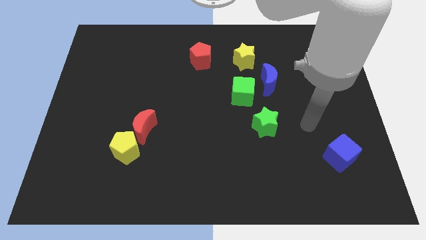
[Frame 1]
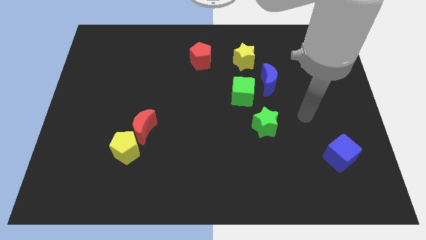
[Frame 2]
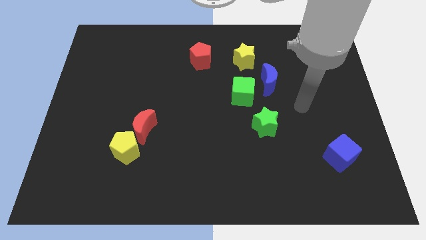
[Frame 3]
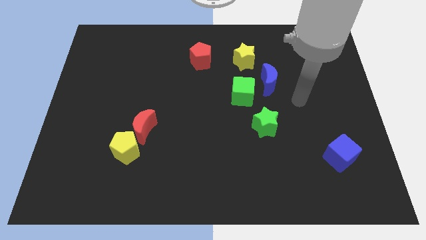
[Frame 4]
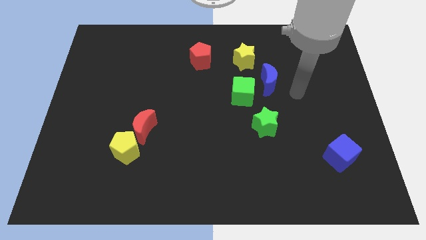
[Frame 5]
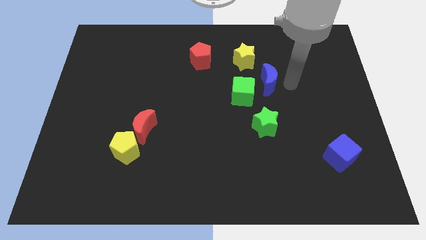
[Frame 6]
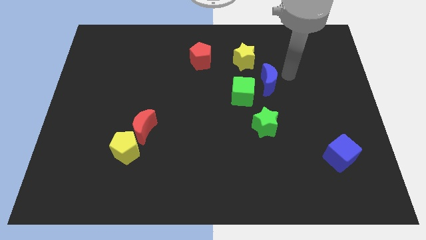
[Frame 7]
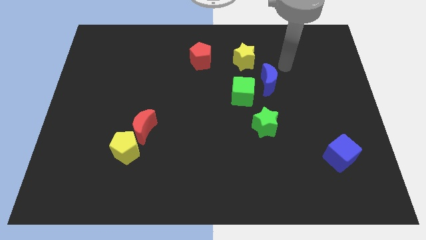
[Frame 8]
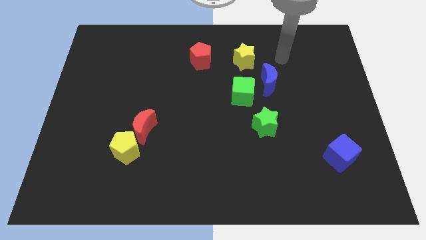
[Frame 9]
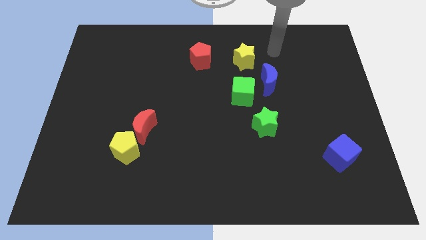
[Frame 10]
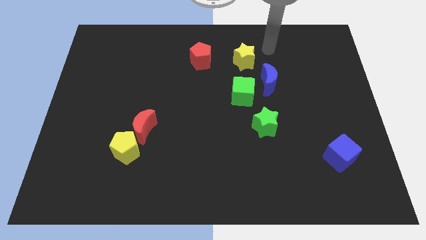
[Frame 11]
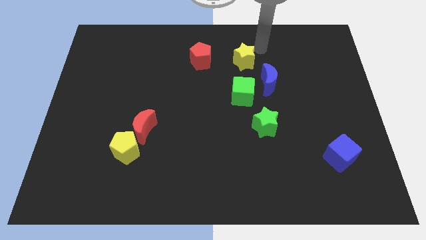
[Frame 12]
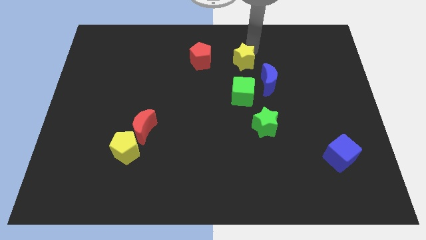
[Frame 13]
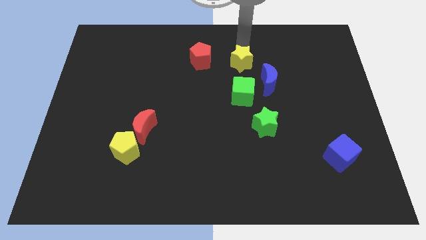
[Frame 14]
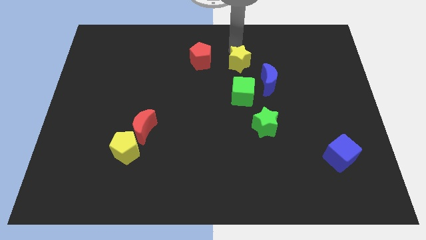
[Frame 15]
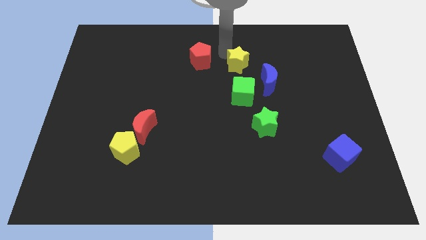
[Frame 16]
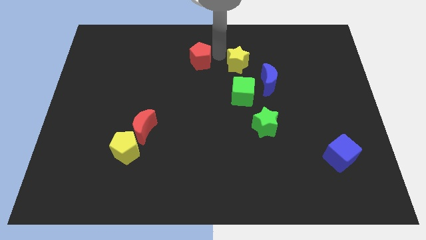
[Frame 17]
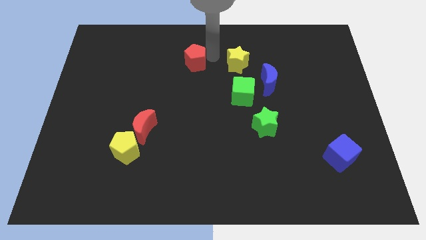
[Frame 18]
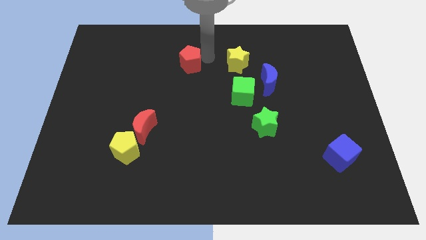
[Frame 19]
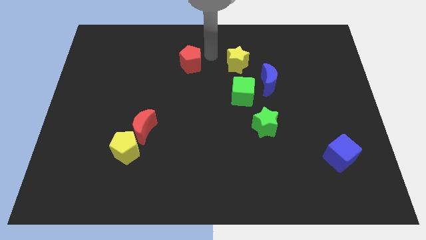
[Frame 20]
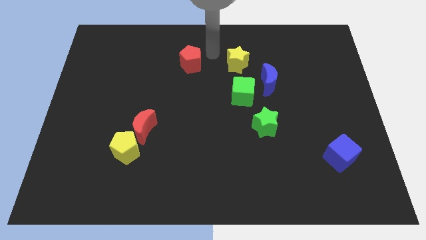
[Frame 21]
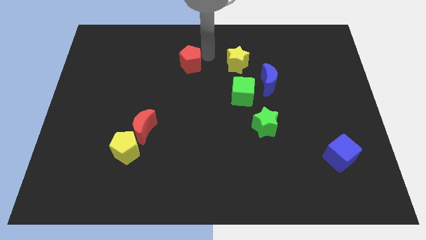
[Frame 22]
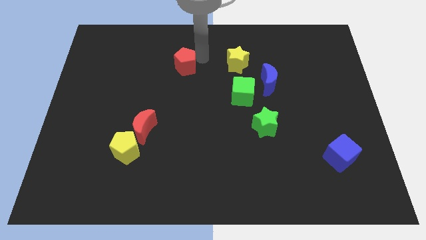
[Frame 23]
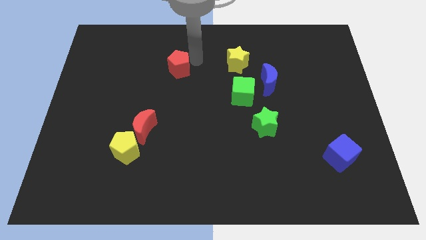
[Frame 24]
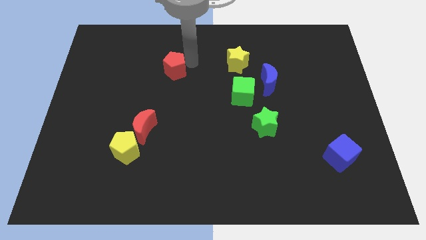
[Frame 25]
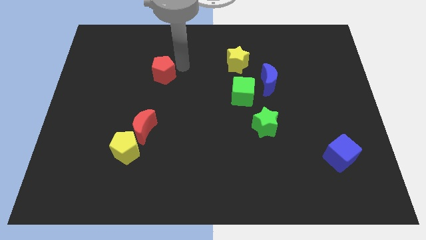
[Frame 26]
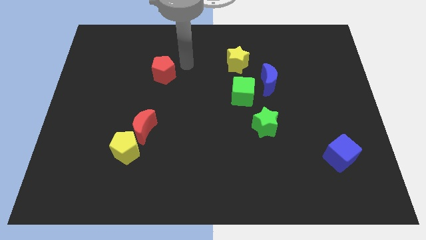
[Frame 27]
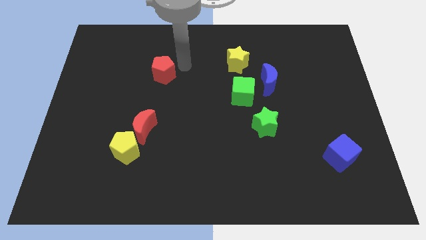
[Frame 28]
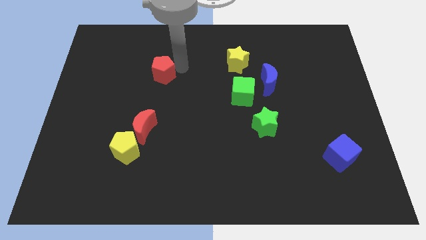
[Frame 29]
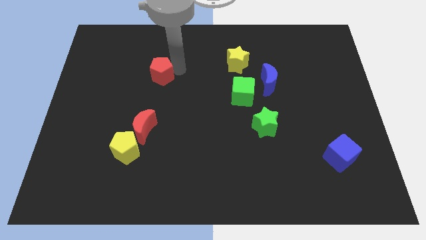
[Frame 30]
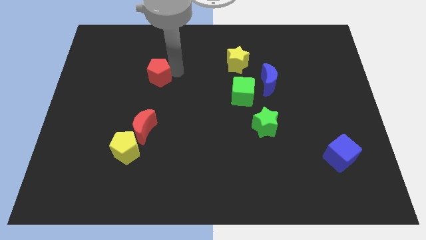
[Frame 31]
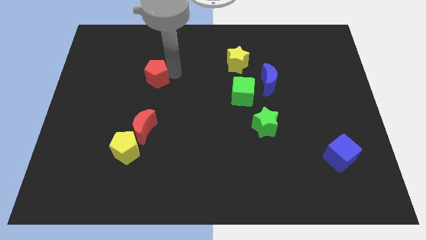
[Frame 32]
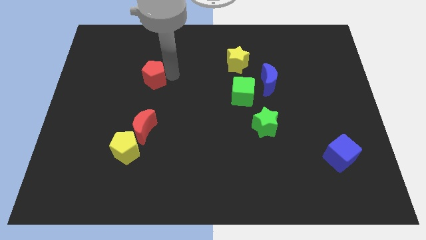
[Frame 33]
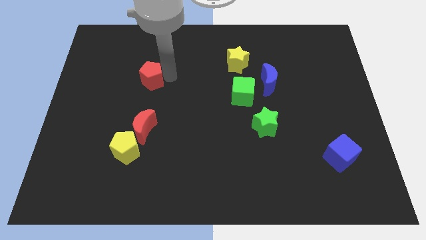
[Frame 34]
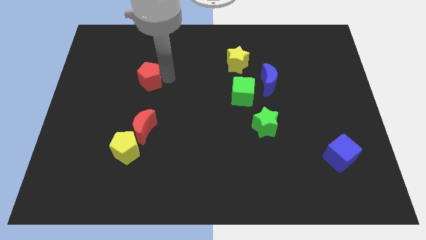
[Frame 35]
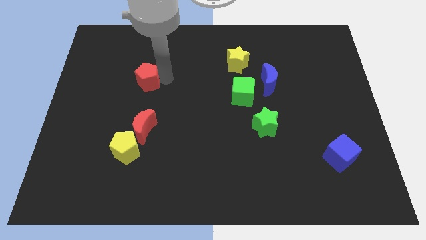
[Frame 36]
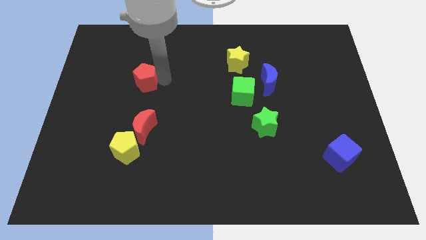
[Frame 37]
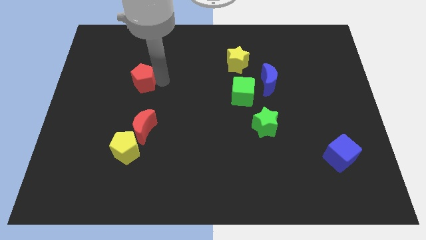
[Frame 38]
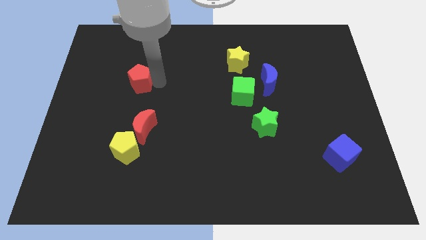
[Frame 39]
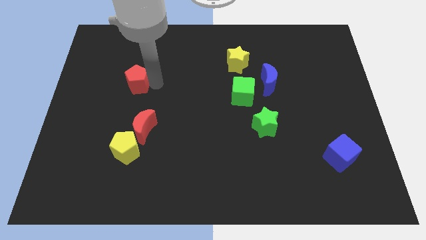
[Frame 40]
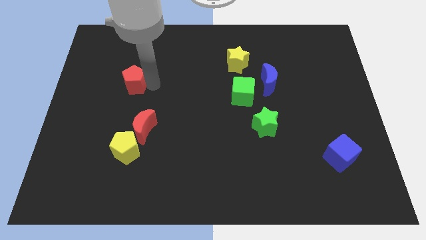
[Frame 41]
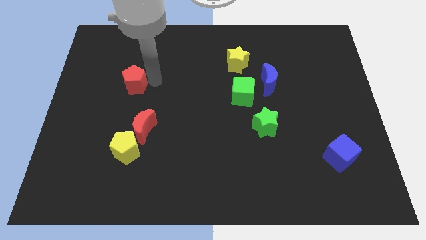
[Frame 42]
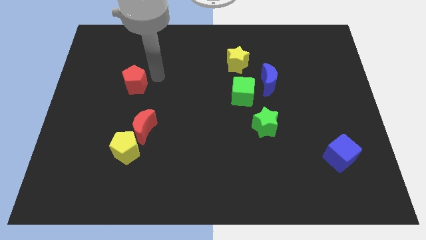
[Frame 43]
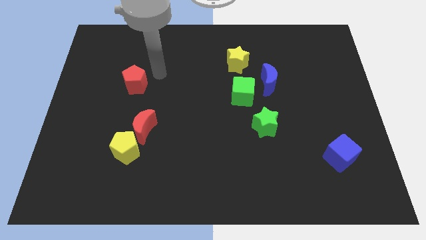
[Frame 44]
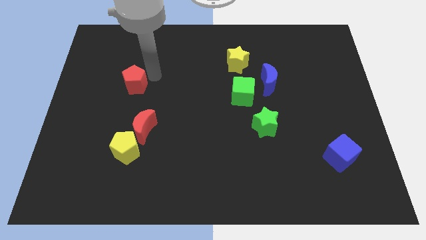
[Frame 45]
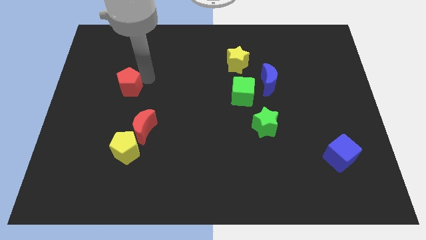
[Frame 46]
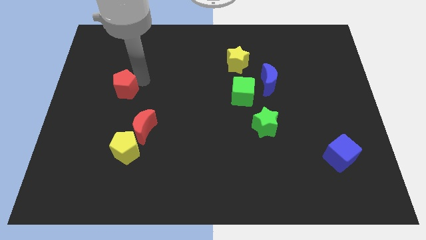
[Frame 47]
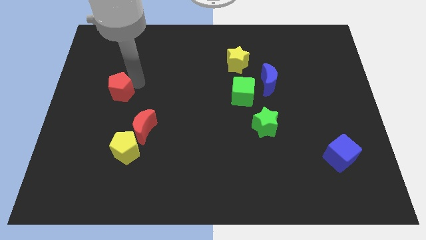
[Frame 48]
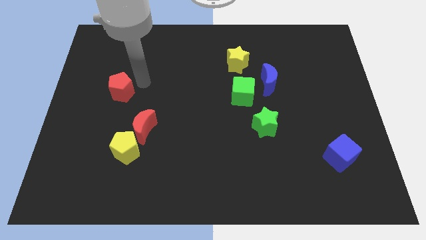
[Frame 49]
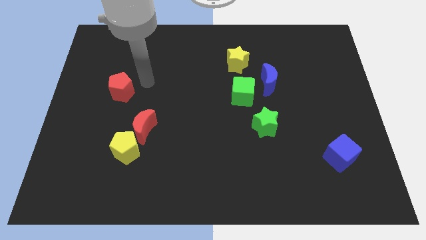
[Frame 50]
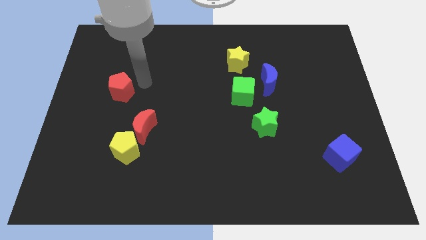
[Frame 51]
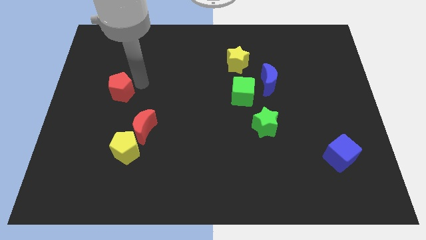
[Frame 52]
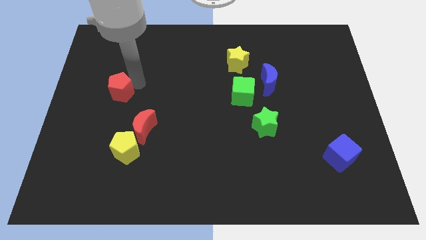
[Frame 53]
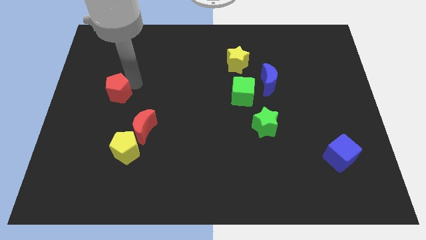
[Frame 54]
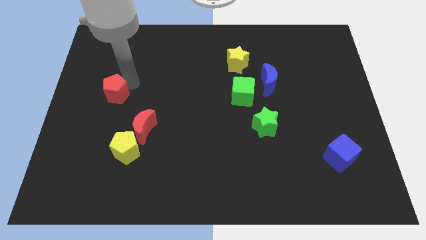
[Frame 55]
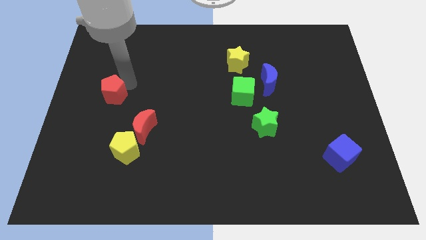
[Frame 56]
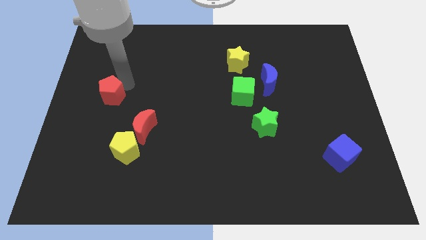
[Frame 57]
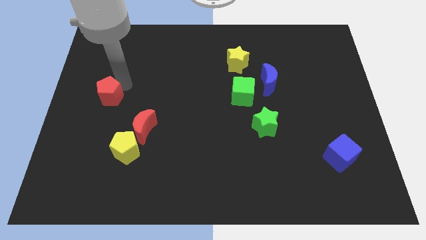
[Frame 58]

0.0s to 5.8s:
slide the red pentagon to the center left

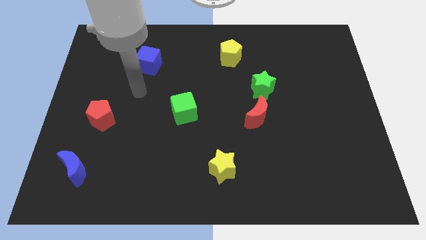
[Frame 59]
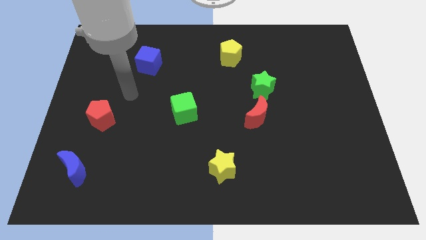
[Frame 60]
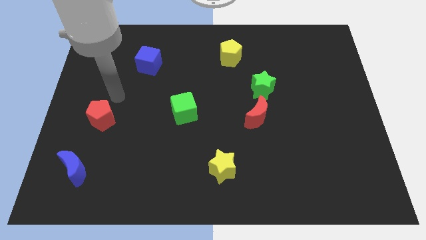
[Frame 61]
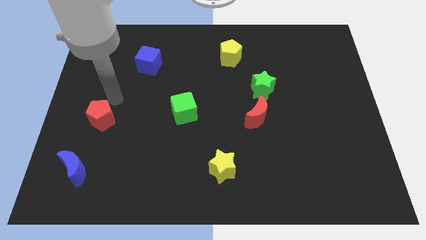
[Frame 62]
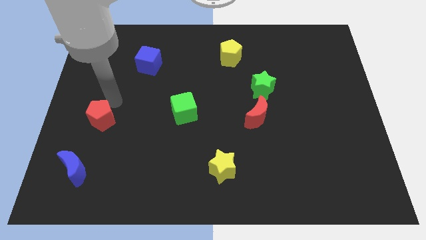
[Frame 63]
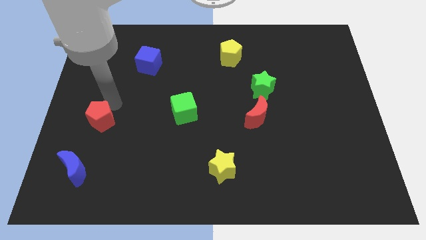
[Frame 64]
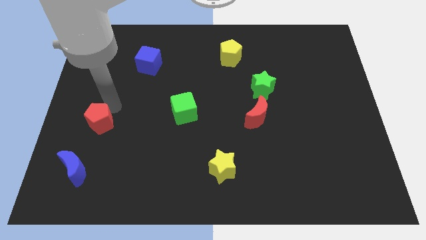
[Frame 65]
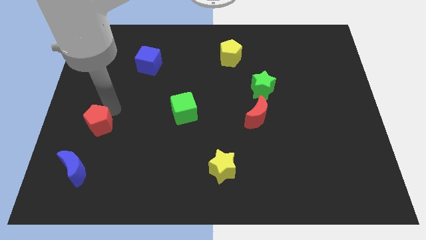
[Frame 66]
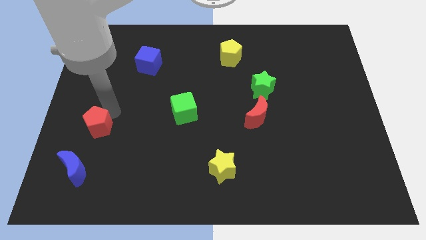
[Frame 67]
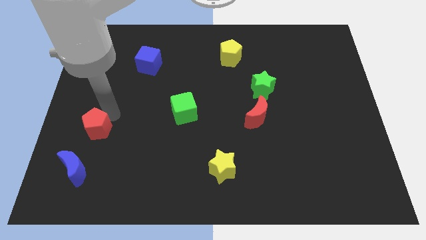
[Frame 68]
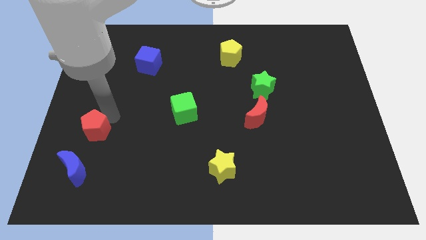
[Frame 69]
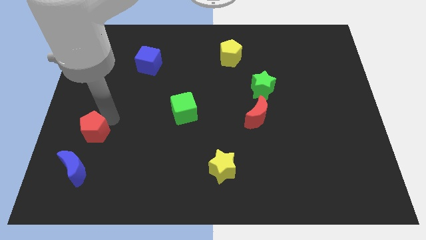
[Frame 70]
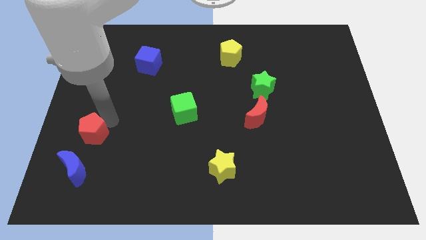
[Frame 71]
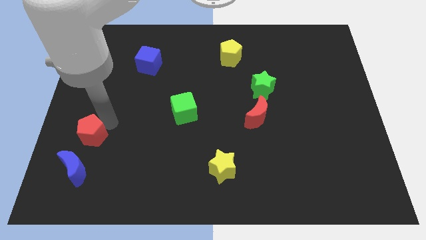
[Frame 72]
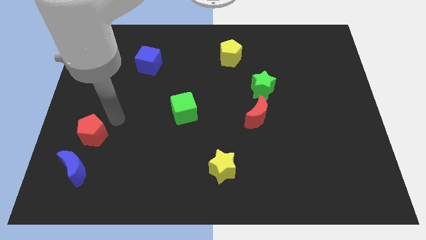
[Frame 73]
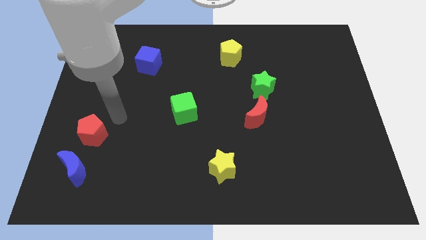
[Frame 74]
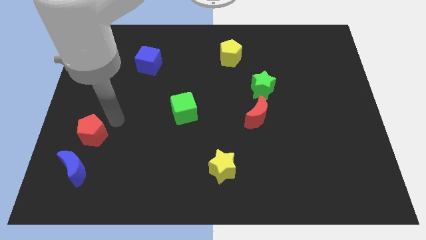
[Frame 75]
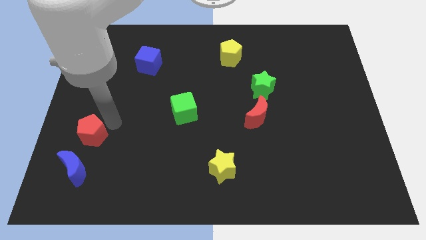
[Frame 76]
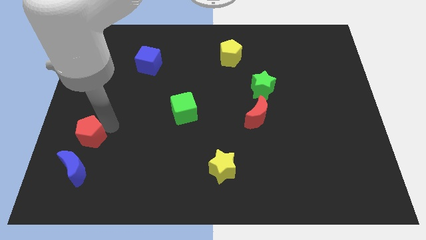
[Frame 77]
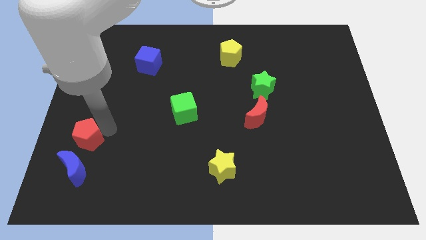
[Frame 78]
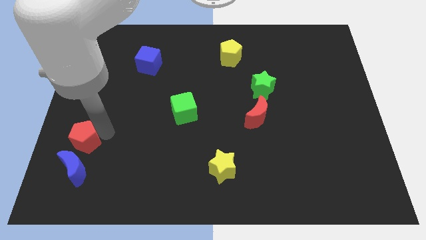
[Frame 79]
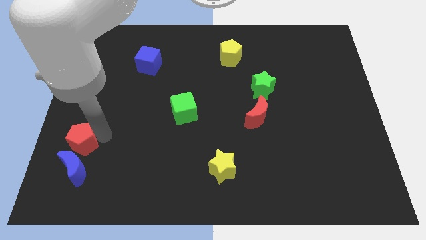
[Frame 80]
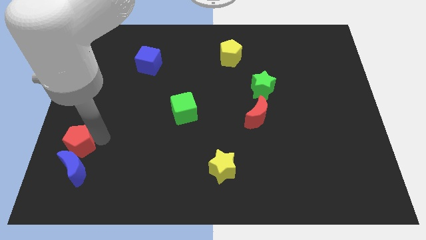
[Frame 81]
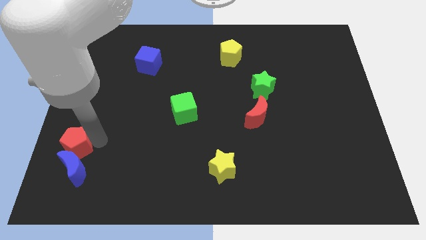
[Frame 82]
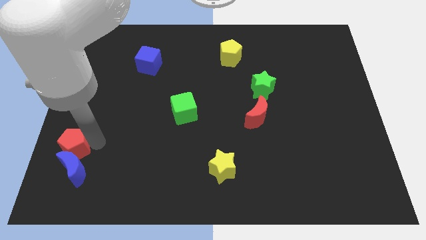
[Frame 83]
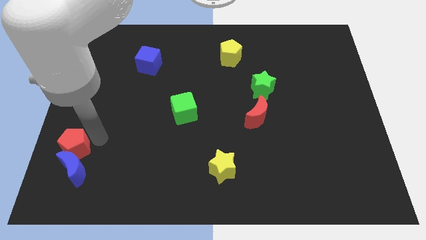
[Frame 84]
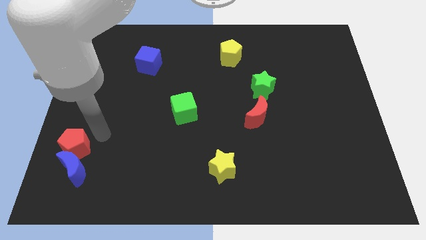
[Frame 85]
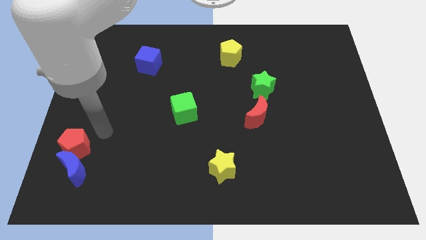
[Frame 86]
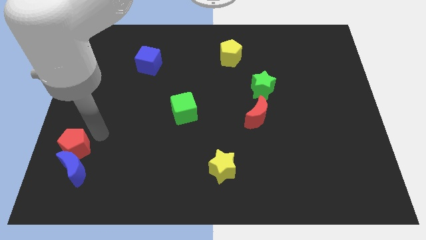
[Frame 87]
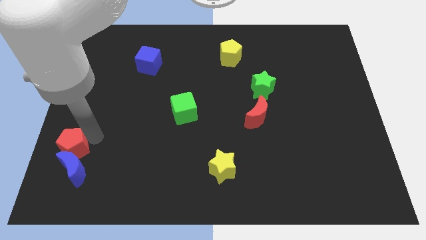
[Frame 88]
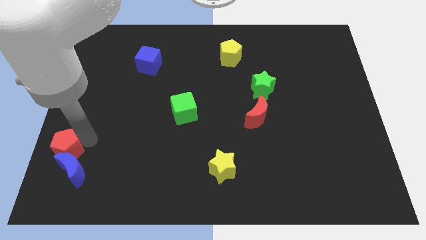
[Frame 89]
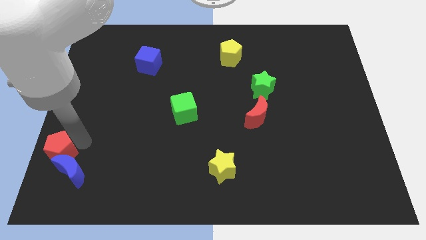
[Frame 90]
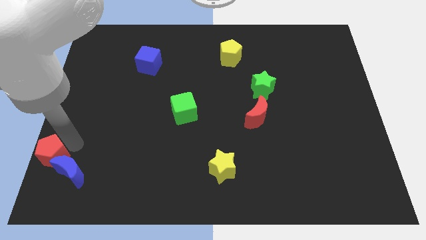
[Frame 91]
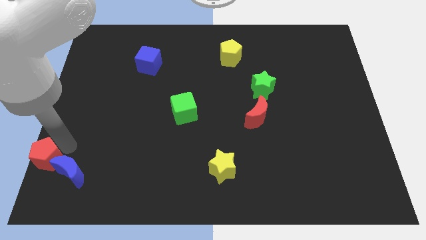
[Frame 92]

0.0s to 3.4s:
slide the red pentagon to the bottom left corner
